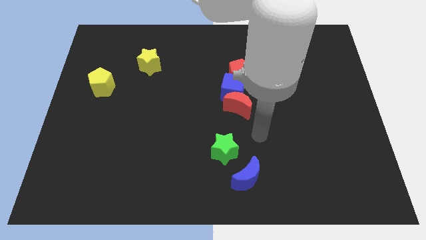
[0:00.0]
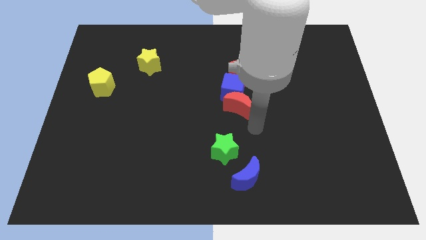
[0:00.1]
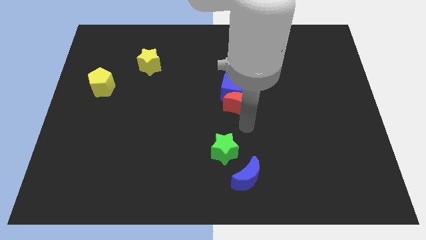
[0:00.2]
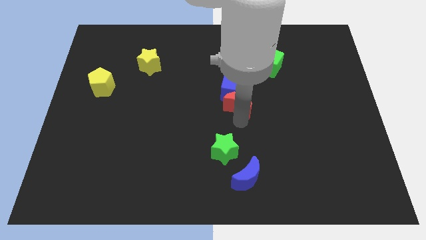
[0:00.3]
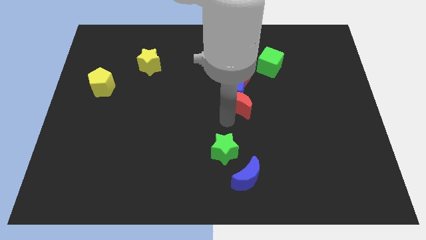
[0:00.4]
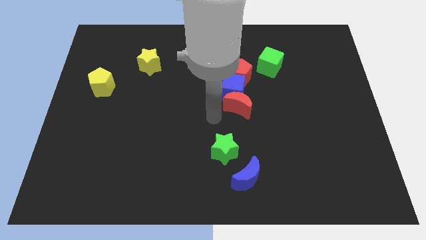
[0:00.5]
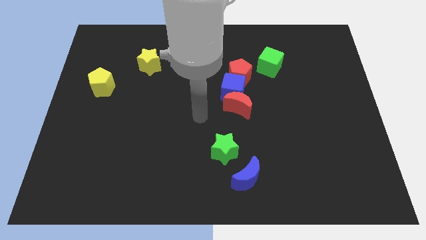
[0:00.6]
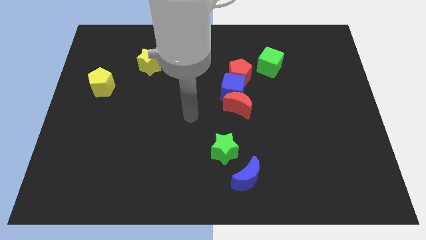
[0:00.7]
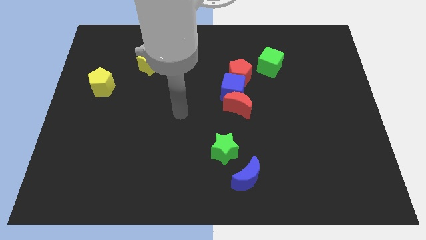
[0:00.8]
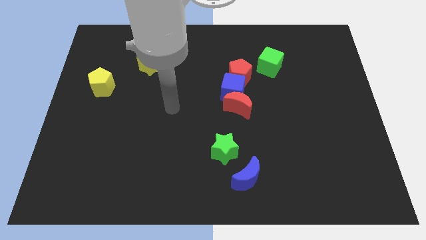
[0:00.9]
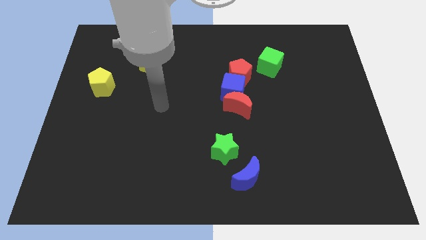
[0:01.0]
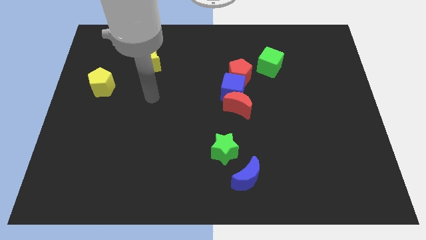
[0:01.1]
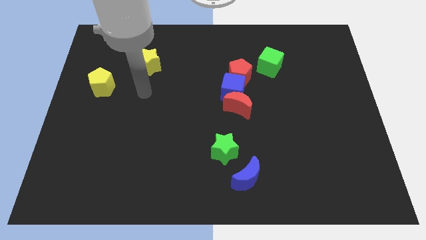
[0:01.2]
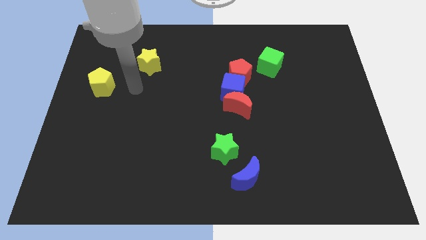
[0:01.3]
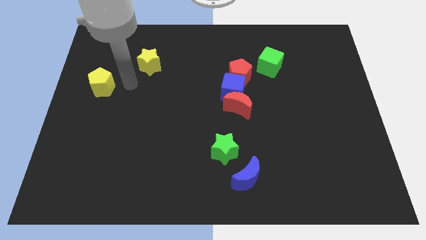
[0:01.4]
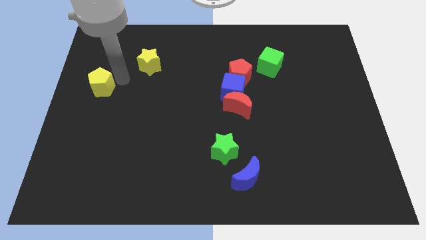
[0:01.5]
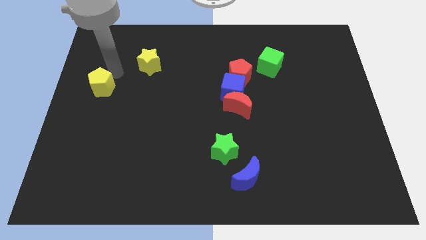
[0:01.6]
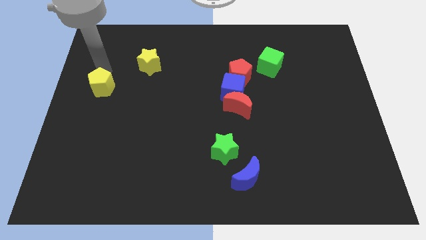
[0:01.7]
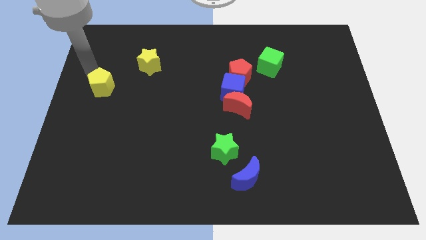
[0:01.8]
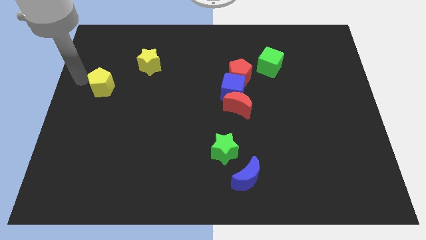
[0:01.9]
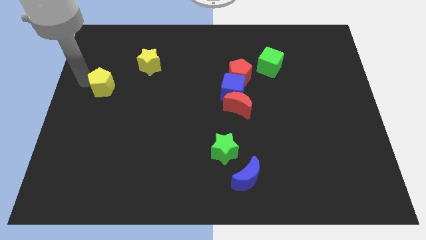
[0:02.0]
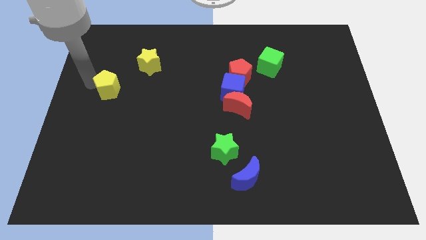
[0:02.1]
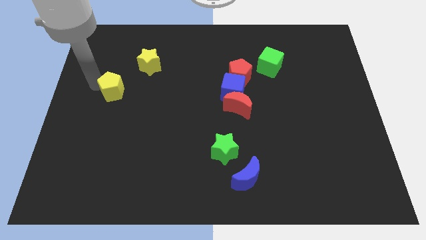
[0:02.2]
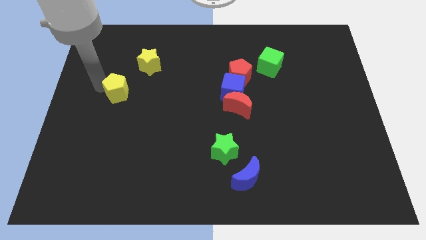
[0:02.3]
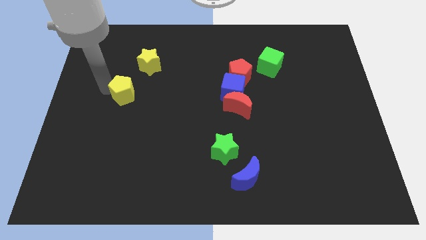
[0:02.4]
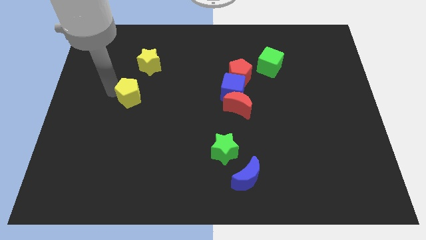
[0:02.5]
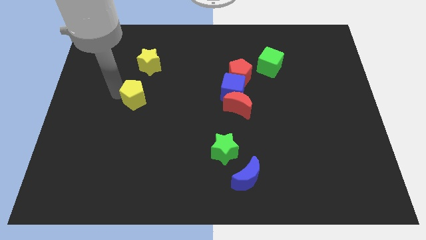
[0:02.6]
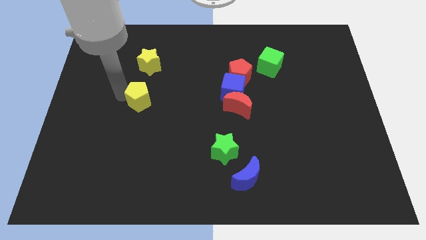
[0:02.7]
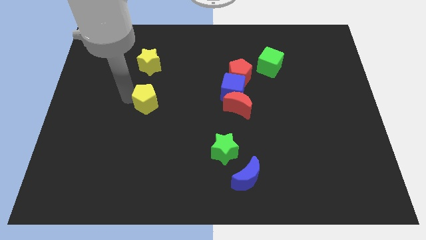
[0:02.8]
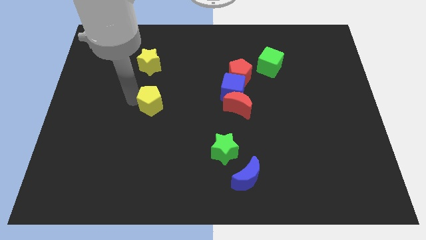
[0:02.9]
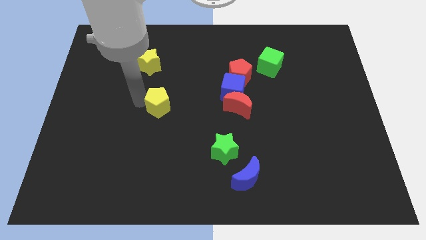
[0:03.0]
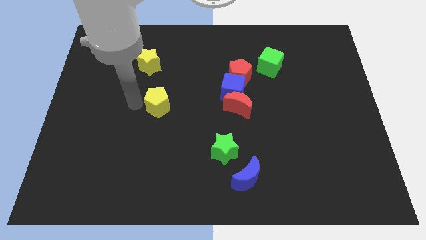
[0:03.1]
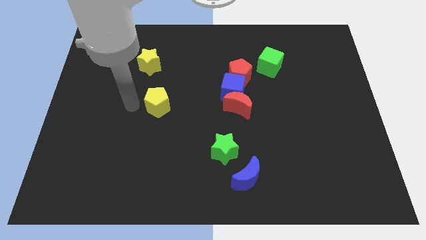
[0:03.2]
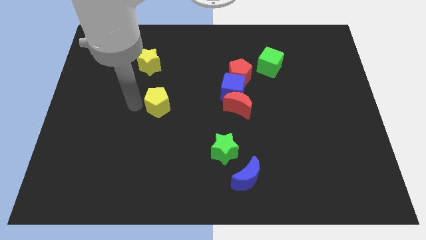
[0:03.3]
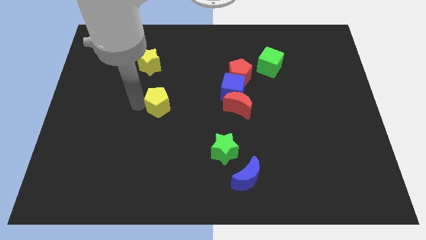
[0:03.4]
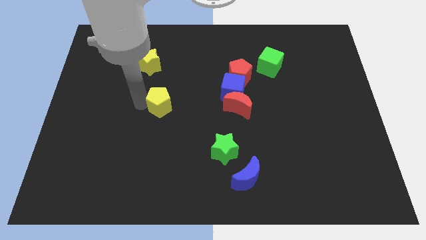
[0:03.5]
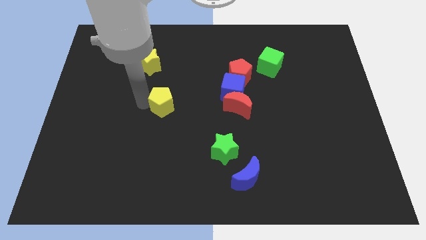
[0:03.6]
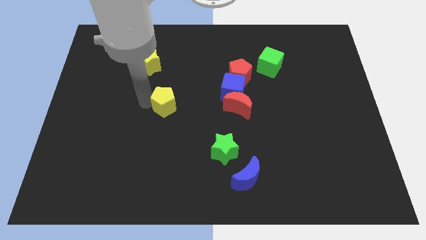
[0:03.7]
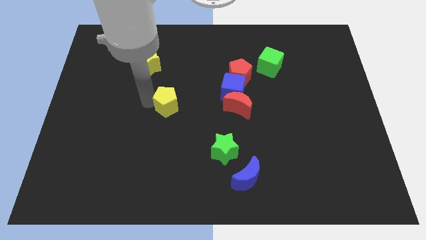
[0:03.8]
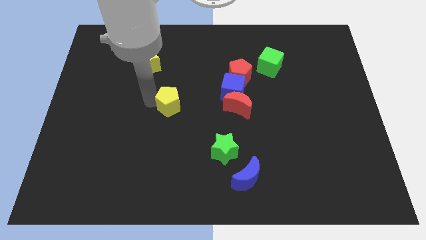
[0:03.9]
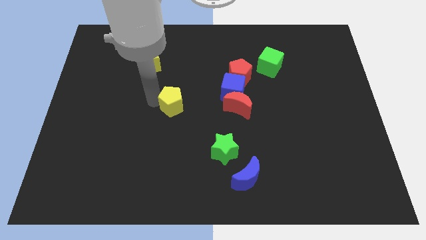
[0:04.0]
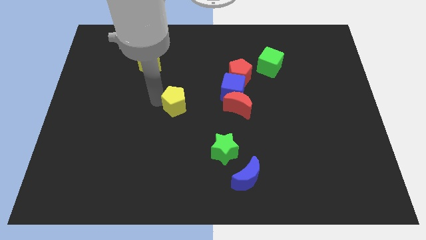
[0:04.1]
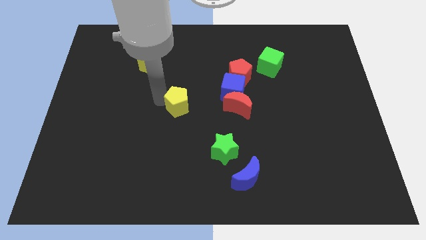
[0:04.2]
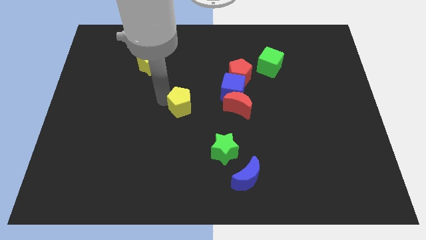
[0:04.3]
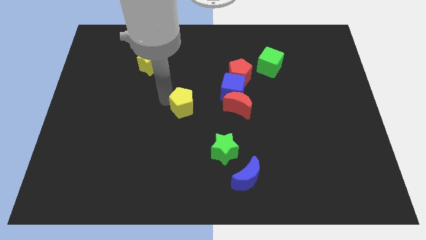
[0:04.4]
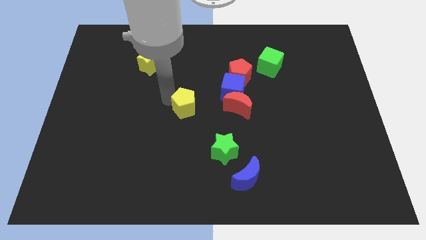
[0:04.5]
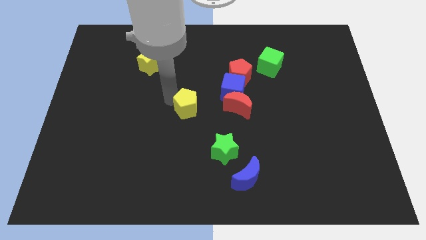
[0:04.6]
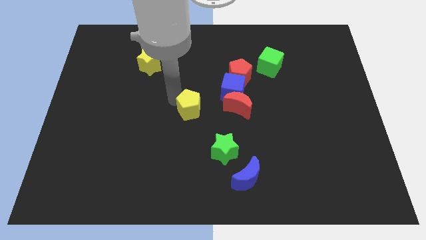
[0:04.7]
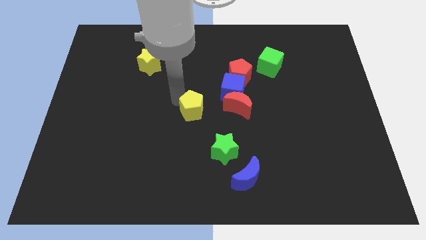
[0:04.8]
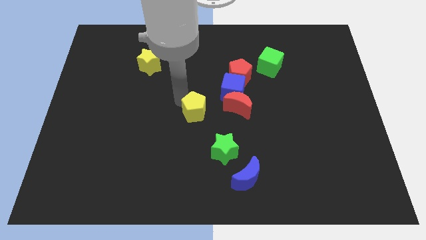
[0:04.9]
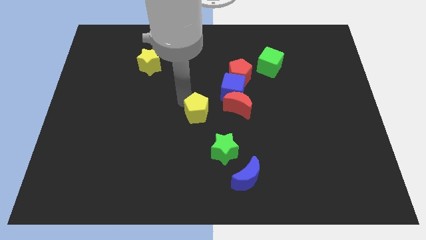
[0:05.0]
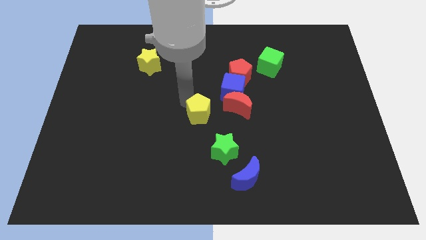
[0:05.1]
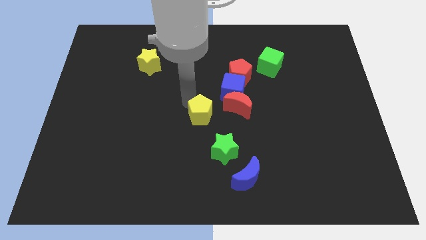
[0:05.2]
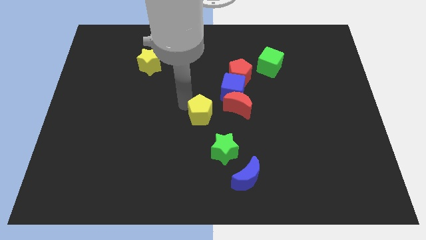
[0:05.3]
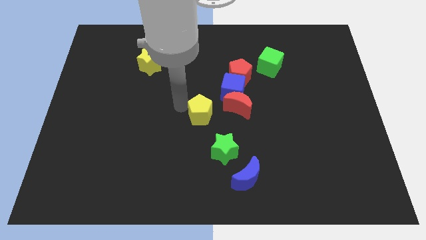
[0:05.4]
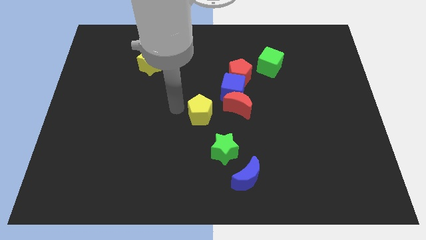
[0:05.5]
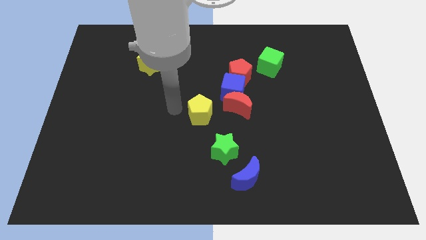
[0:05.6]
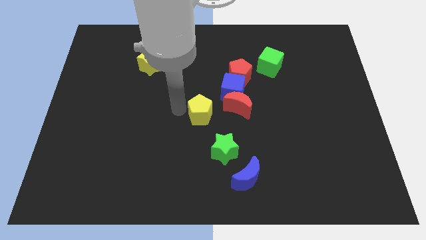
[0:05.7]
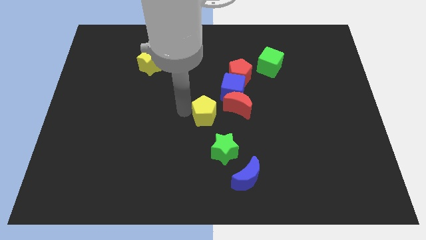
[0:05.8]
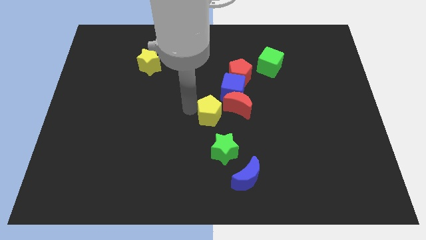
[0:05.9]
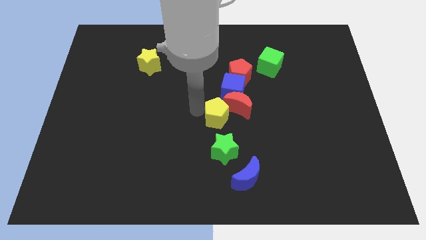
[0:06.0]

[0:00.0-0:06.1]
slide the yellow pentagon to the bottom side of the blue cube

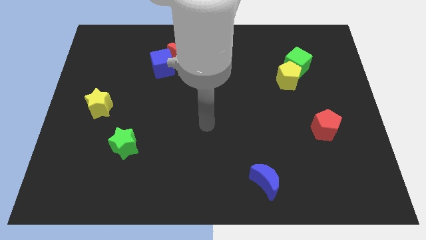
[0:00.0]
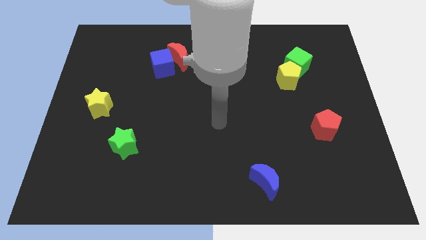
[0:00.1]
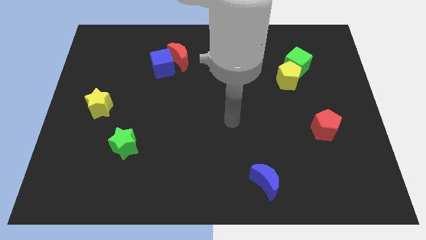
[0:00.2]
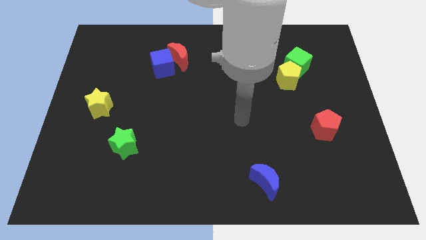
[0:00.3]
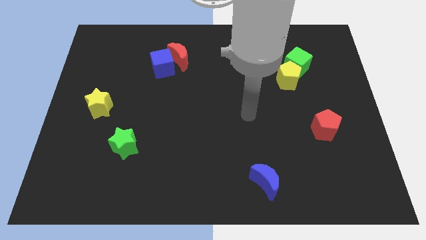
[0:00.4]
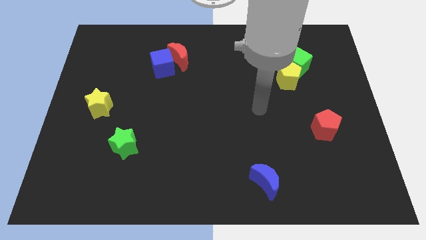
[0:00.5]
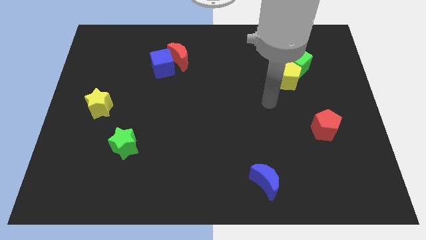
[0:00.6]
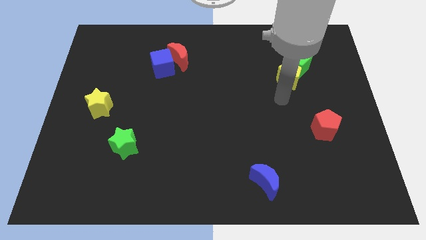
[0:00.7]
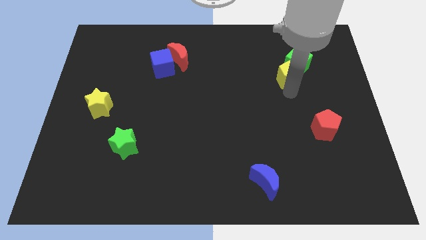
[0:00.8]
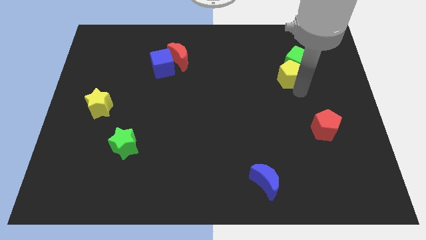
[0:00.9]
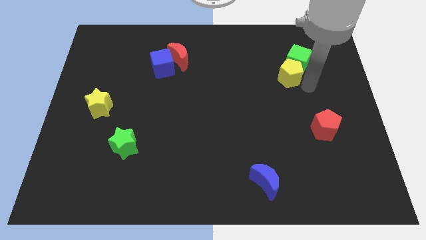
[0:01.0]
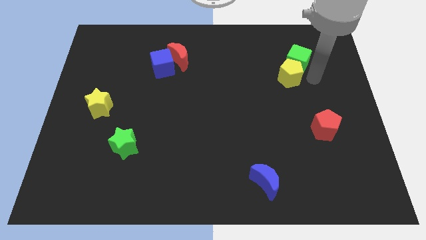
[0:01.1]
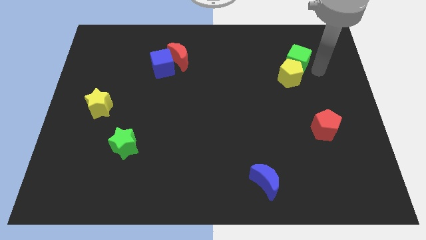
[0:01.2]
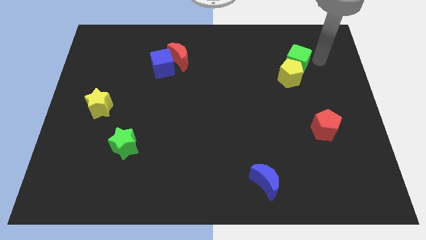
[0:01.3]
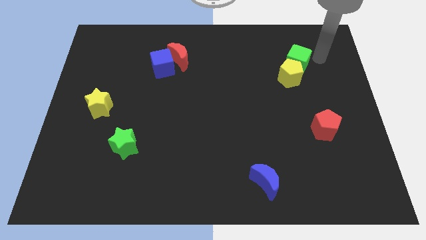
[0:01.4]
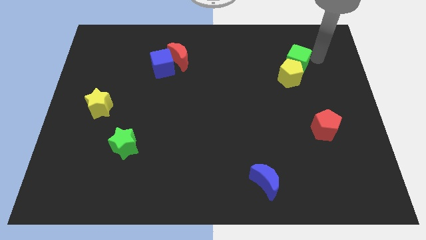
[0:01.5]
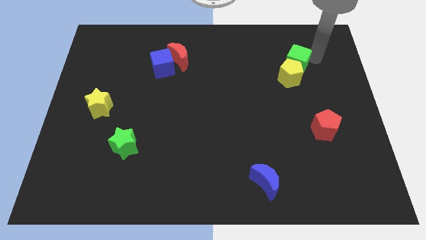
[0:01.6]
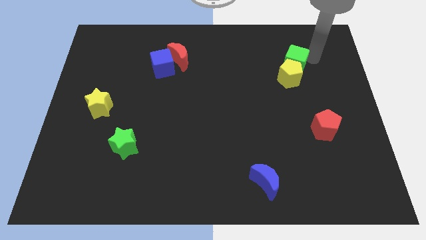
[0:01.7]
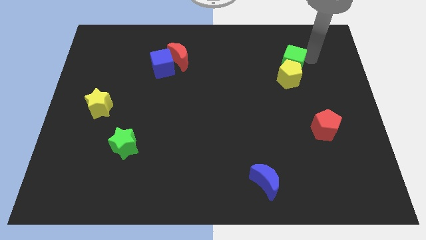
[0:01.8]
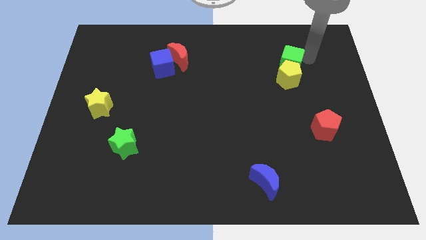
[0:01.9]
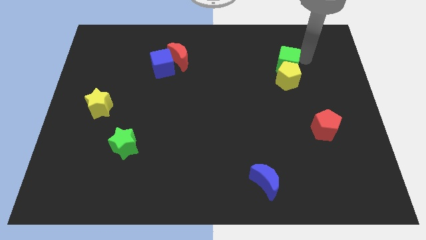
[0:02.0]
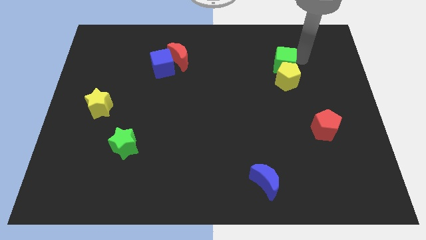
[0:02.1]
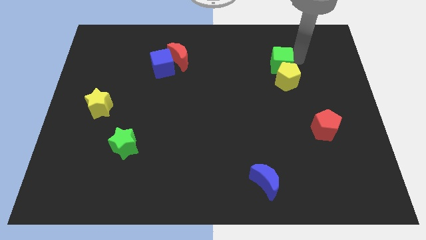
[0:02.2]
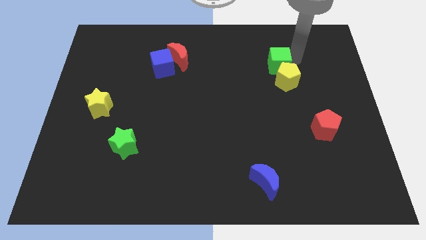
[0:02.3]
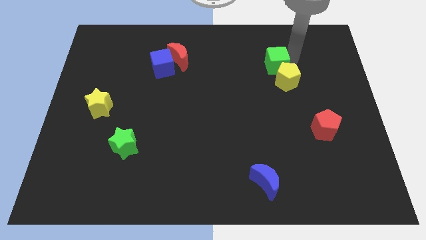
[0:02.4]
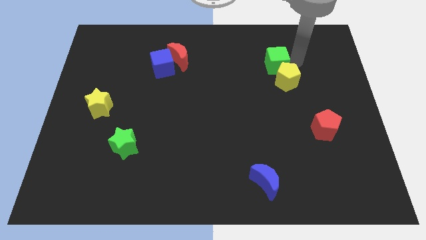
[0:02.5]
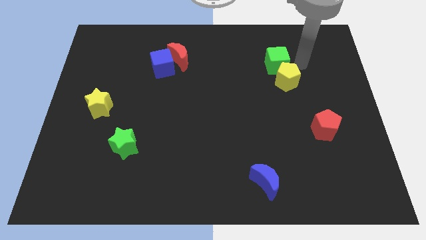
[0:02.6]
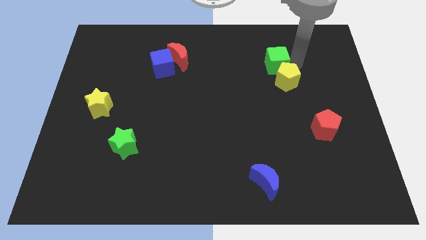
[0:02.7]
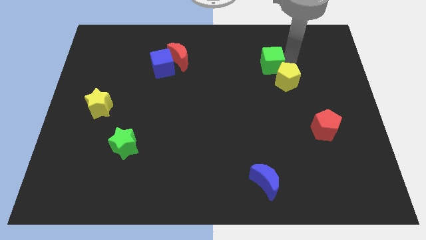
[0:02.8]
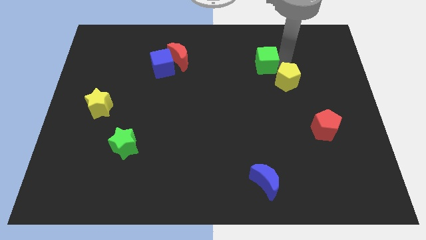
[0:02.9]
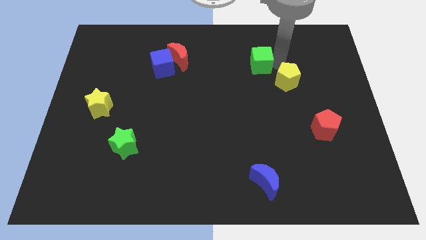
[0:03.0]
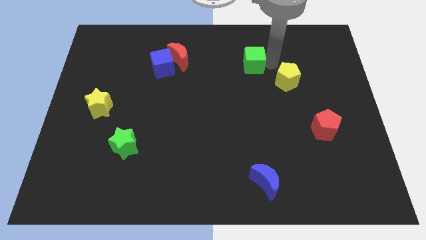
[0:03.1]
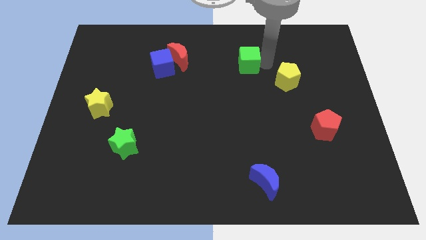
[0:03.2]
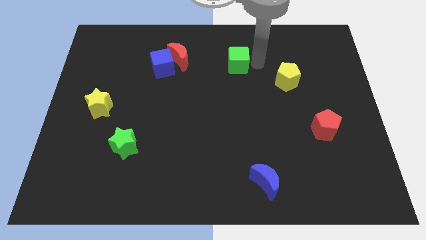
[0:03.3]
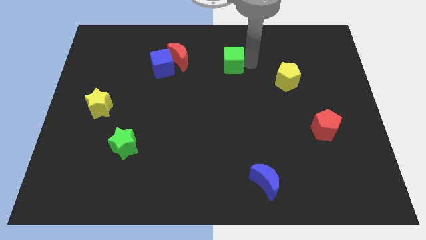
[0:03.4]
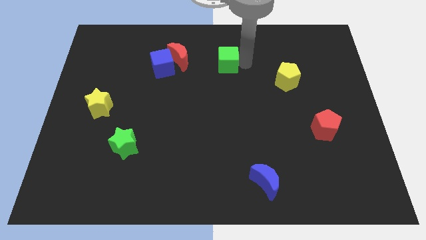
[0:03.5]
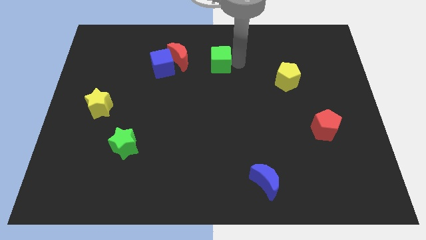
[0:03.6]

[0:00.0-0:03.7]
put the green cube just right of the blue cube
